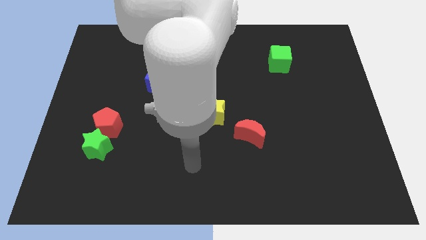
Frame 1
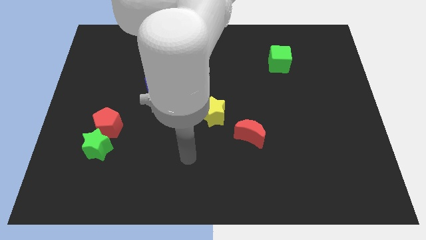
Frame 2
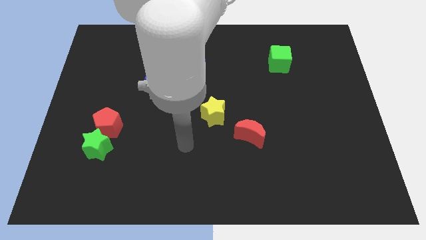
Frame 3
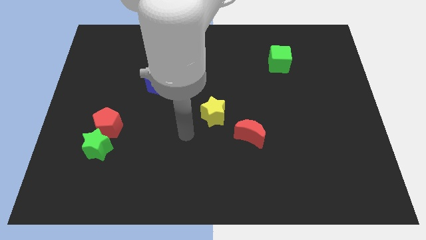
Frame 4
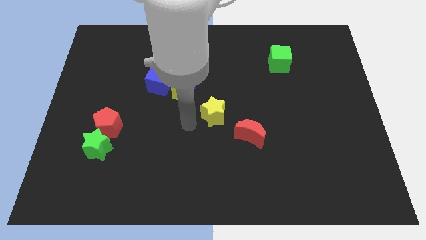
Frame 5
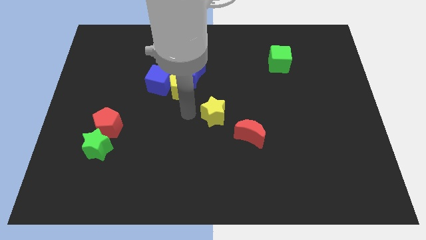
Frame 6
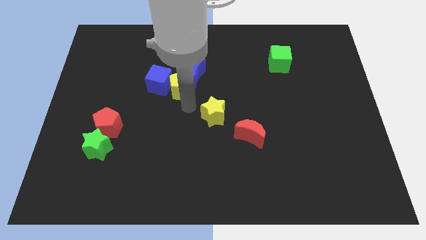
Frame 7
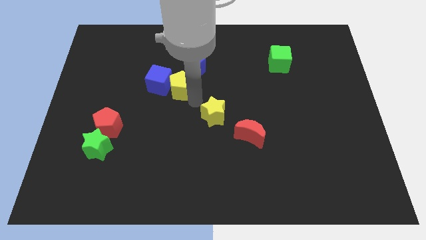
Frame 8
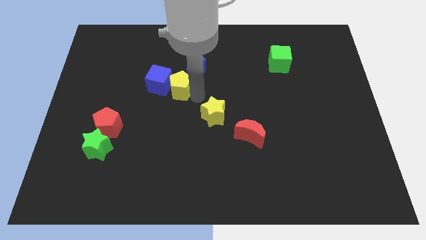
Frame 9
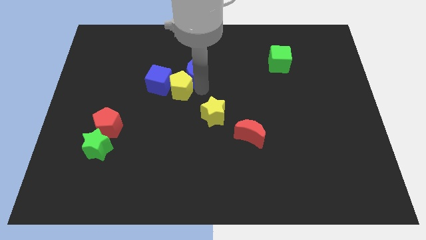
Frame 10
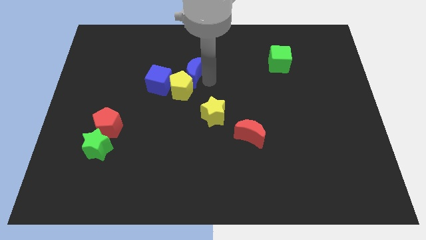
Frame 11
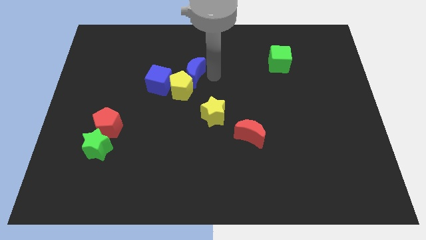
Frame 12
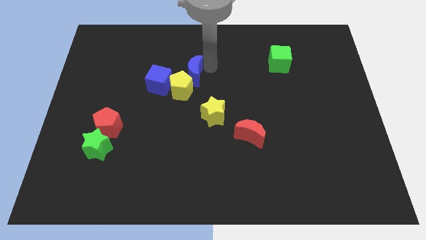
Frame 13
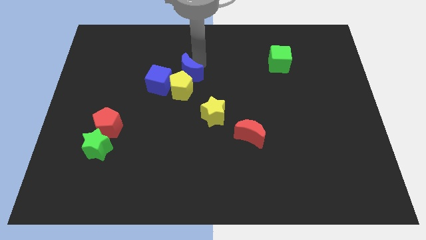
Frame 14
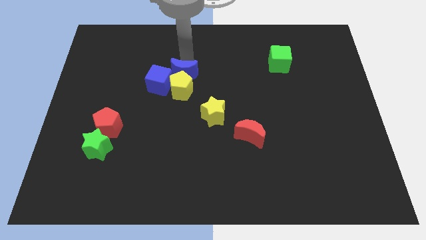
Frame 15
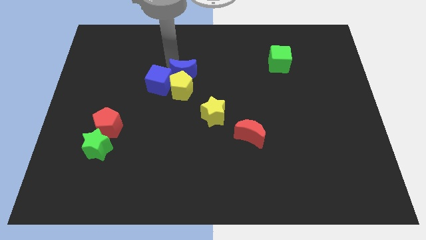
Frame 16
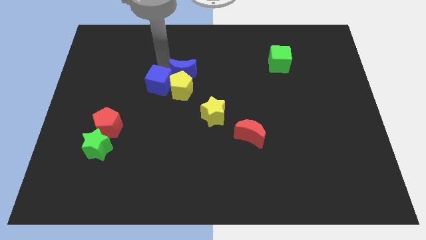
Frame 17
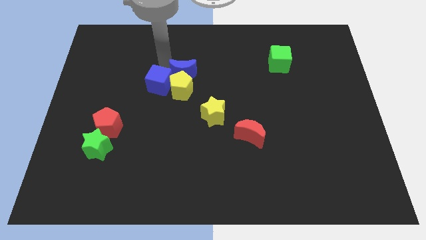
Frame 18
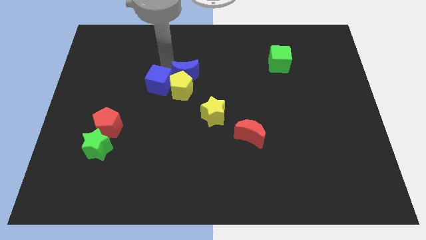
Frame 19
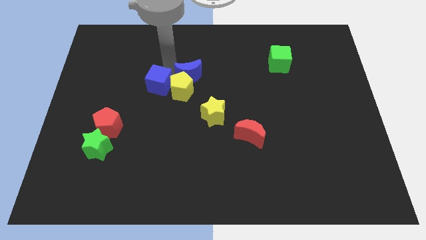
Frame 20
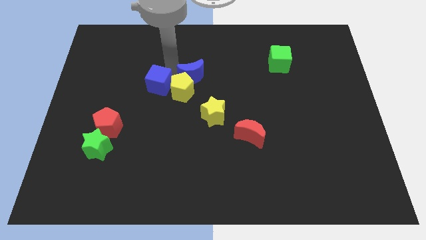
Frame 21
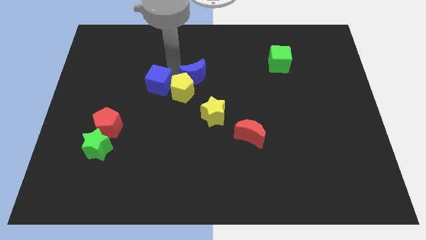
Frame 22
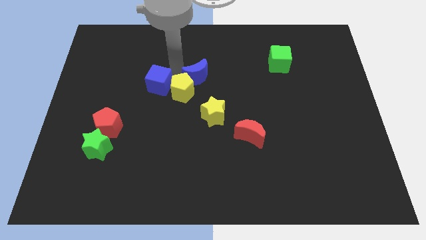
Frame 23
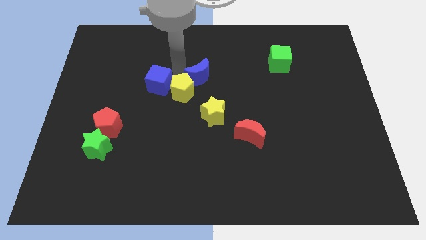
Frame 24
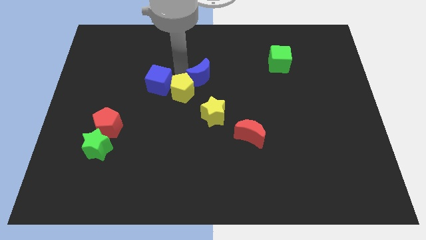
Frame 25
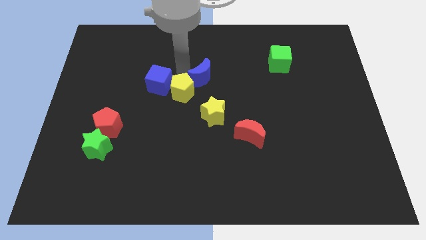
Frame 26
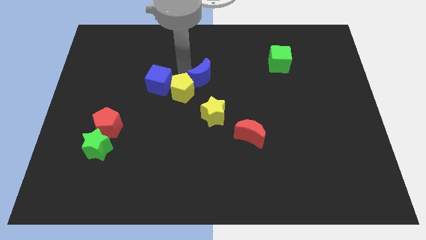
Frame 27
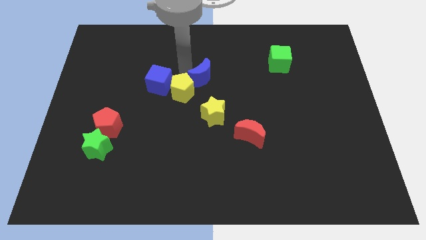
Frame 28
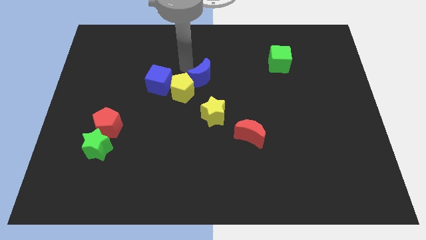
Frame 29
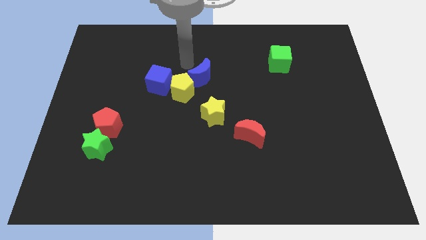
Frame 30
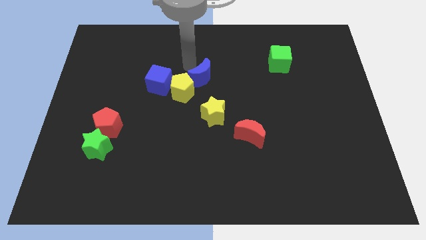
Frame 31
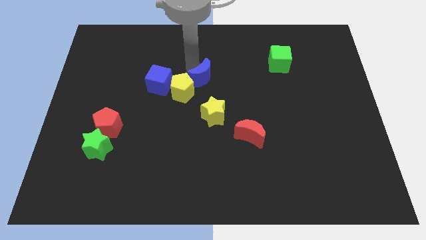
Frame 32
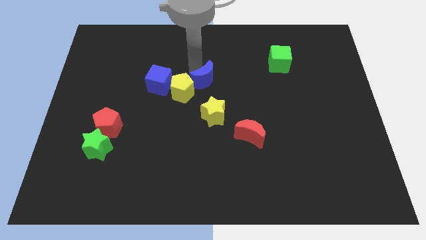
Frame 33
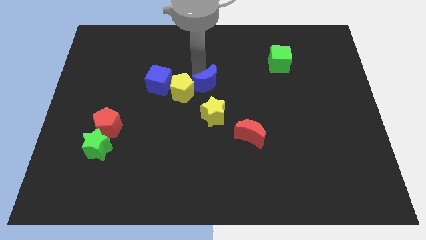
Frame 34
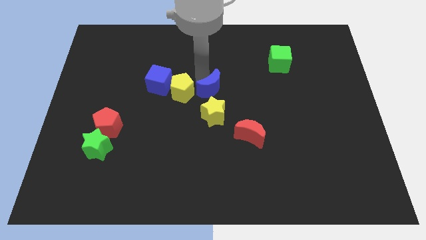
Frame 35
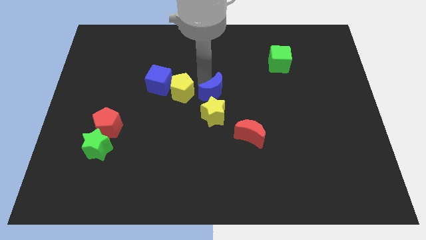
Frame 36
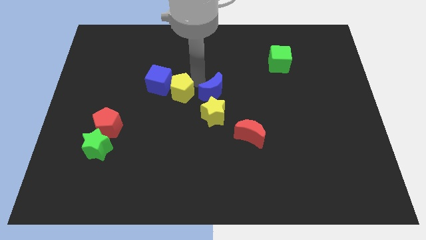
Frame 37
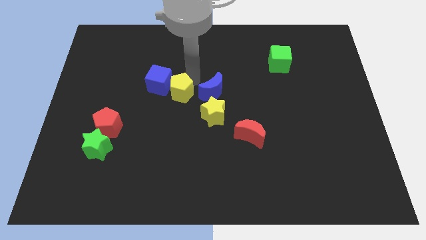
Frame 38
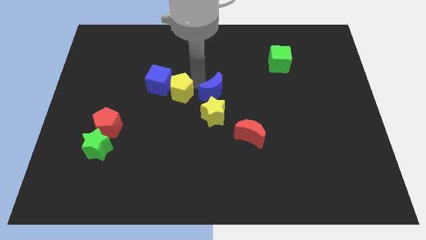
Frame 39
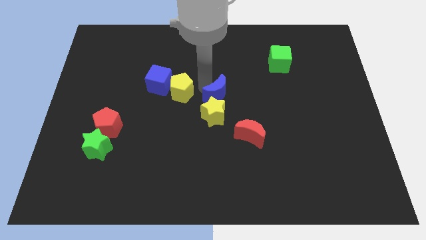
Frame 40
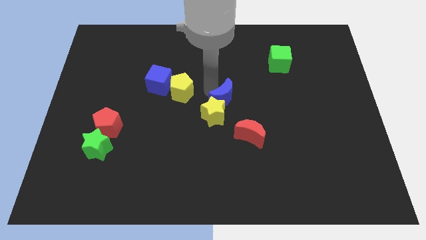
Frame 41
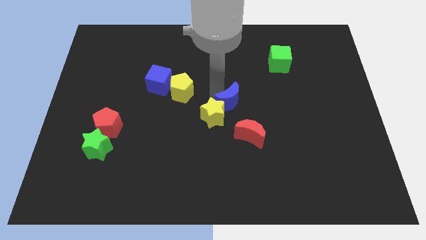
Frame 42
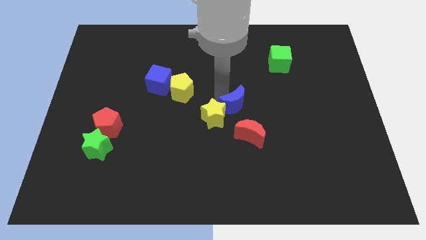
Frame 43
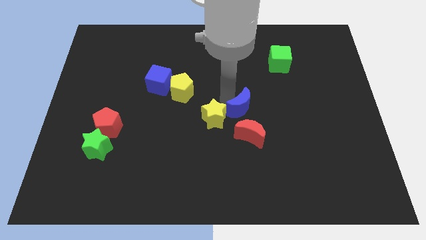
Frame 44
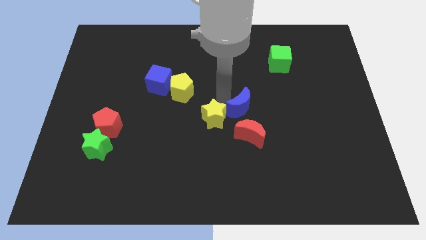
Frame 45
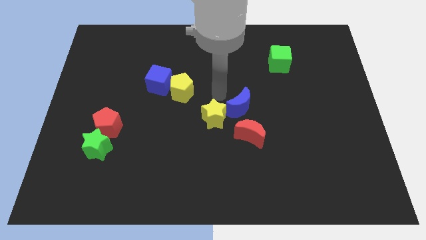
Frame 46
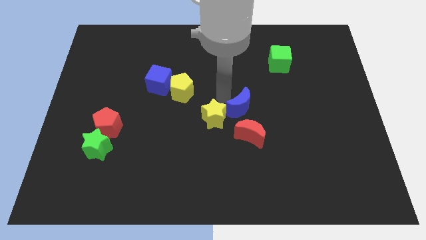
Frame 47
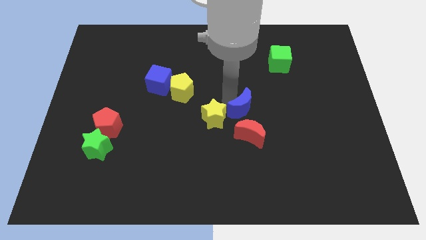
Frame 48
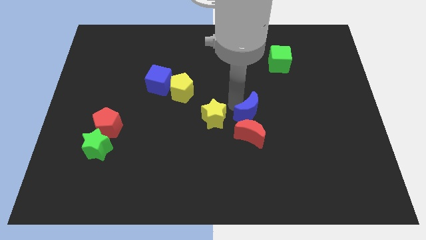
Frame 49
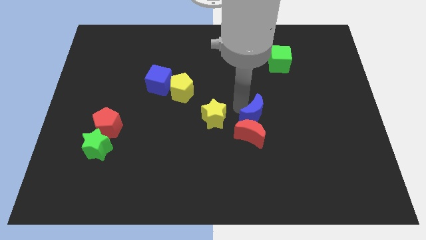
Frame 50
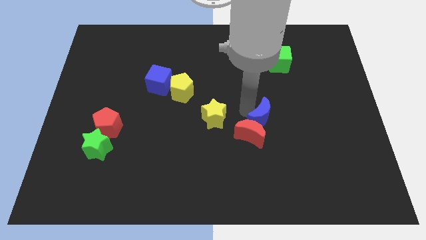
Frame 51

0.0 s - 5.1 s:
slide the blue moon downwards and to the right diagonally

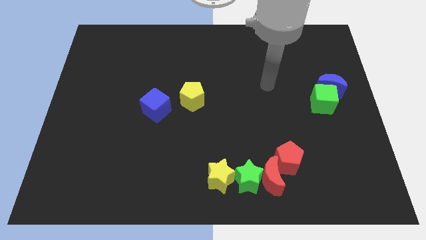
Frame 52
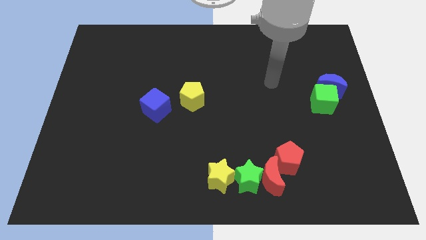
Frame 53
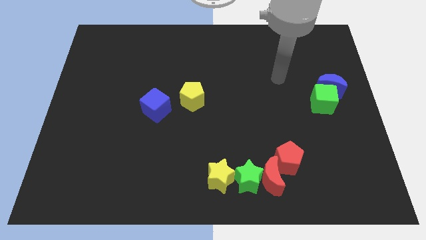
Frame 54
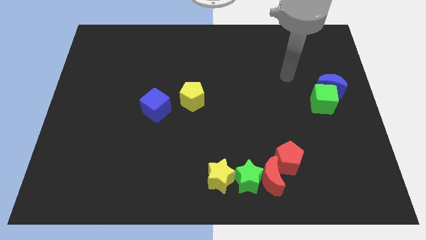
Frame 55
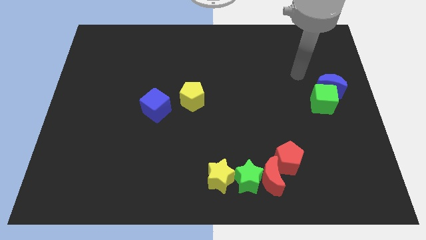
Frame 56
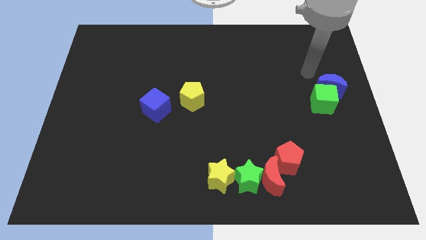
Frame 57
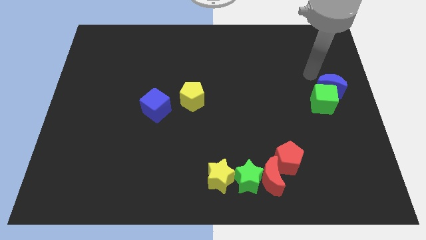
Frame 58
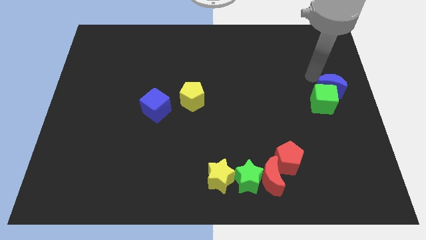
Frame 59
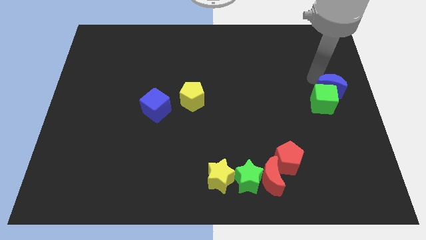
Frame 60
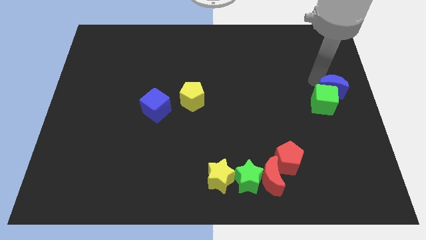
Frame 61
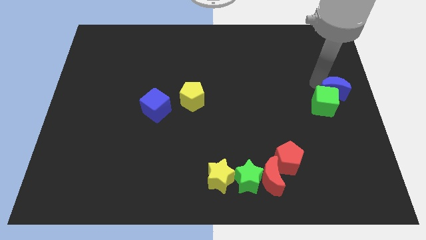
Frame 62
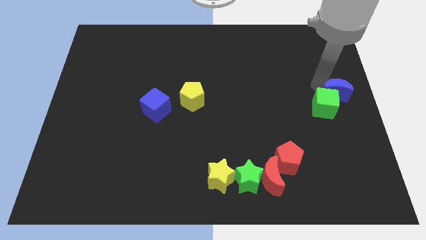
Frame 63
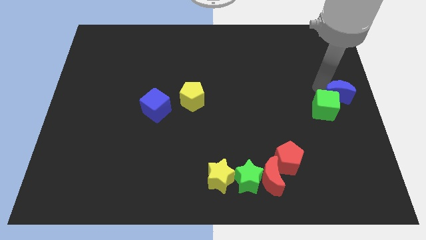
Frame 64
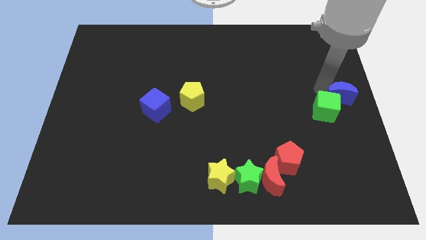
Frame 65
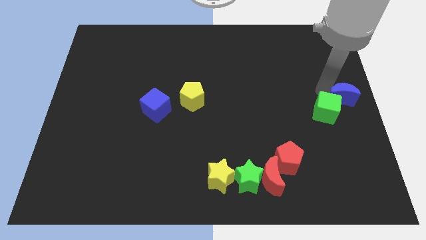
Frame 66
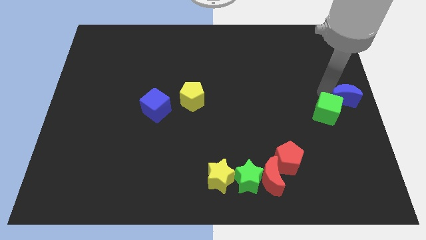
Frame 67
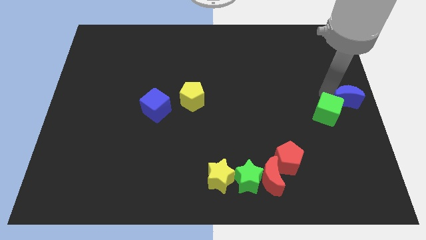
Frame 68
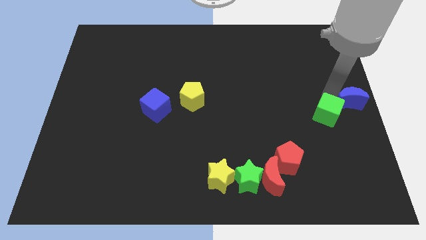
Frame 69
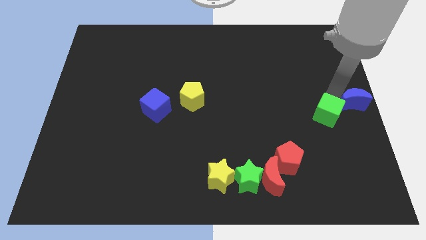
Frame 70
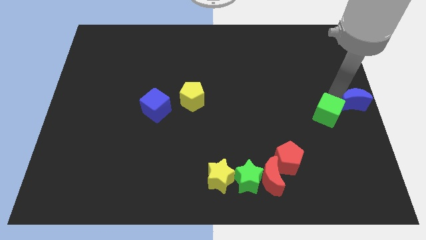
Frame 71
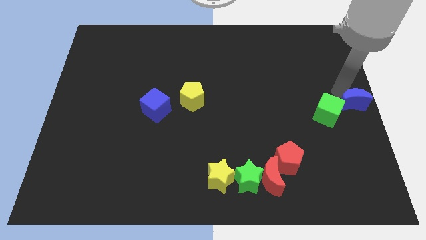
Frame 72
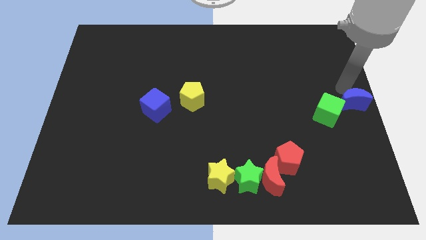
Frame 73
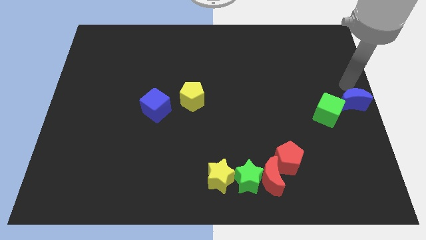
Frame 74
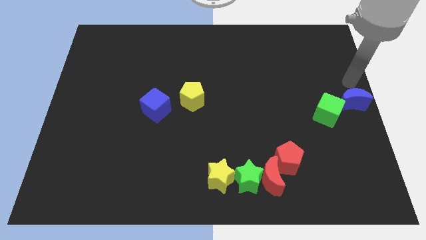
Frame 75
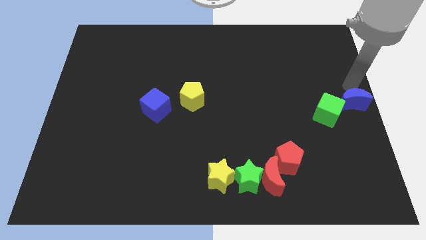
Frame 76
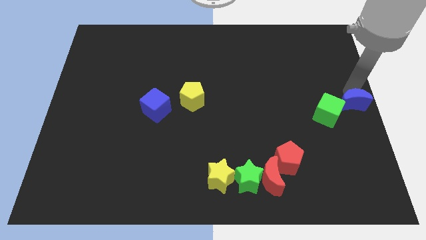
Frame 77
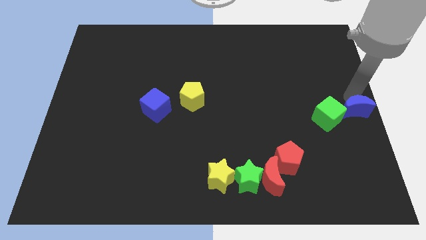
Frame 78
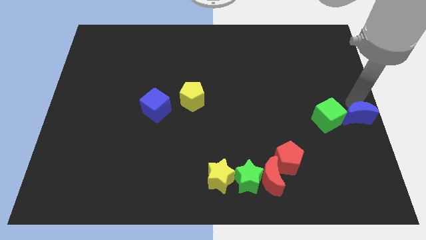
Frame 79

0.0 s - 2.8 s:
slide the blue moon a bit down

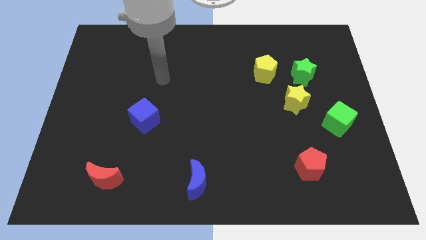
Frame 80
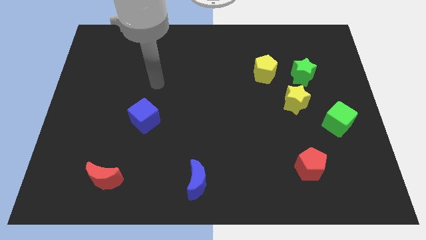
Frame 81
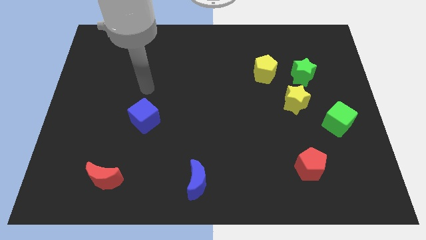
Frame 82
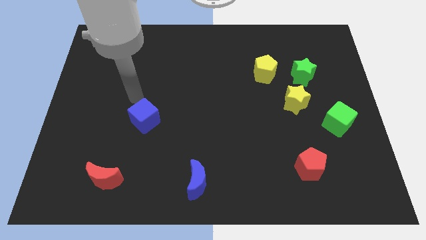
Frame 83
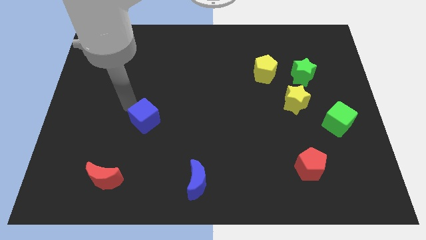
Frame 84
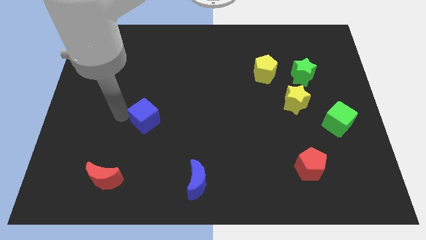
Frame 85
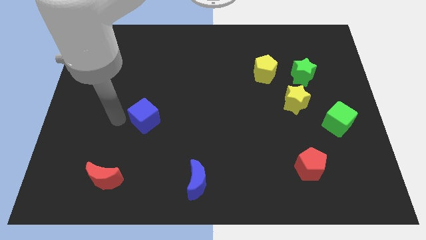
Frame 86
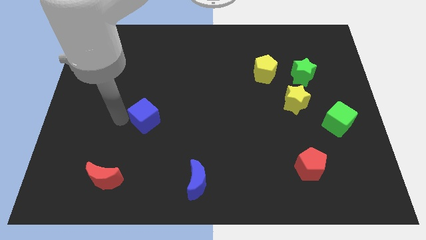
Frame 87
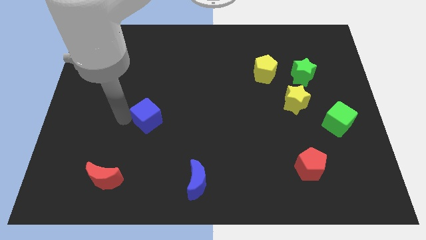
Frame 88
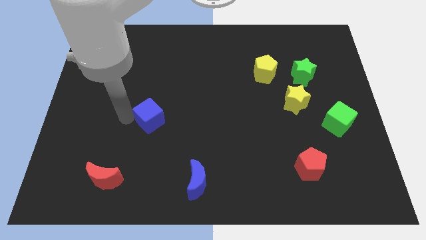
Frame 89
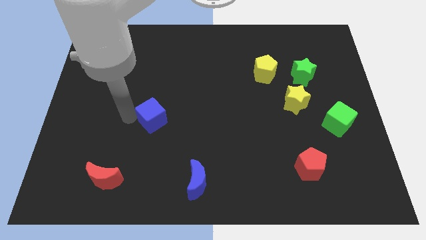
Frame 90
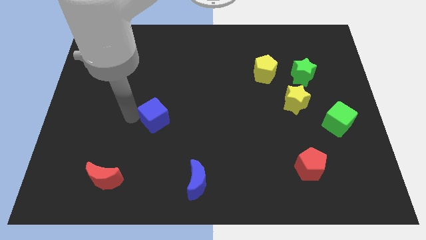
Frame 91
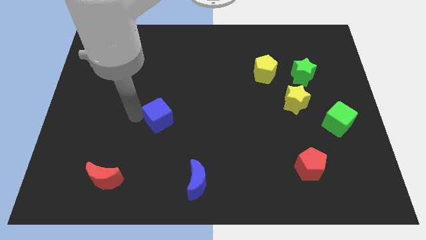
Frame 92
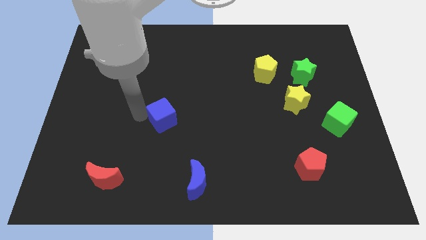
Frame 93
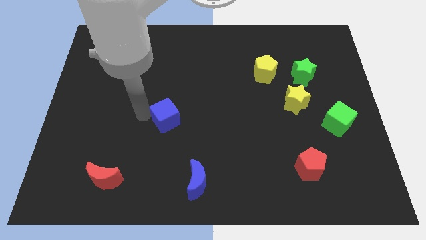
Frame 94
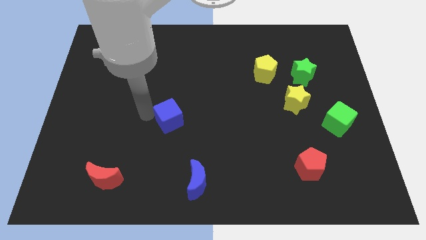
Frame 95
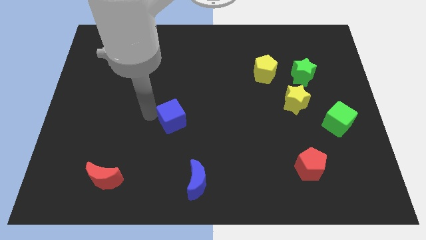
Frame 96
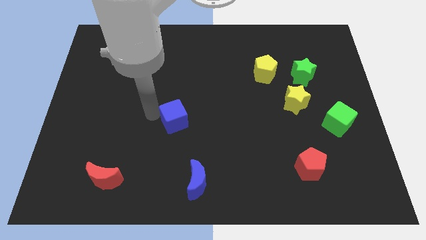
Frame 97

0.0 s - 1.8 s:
push the blue cube to the right a bit
